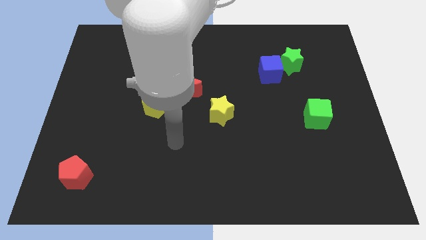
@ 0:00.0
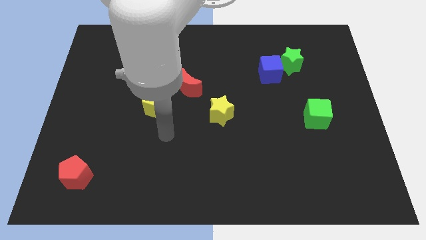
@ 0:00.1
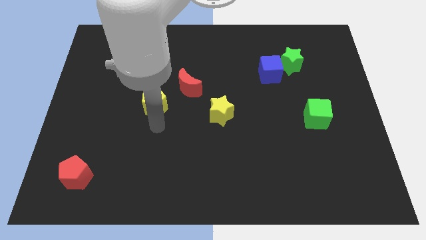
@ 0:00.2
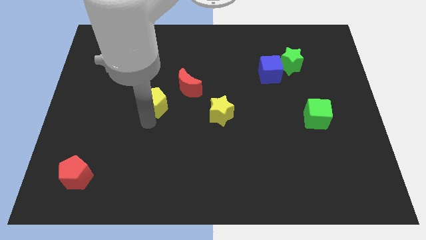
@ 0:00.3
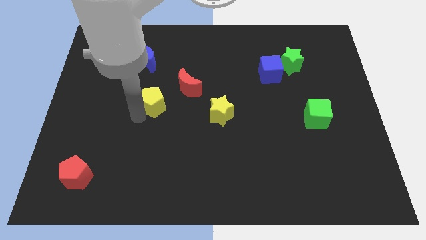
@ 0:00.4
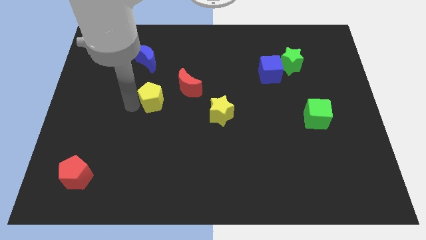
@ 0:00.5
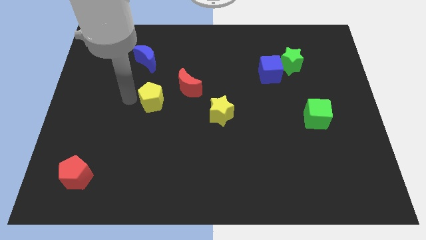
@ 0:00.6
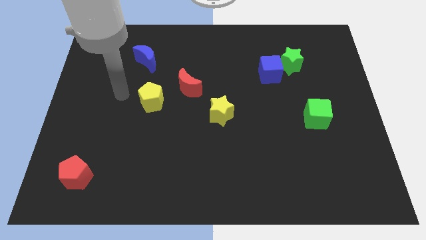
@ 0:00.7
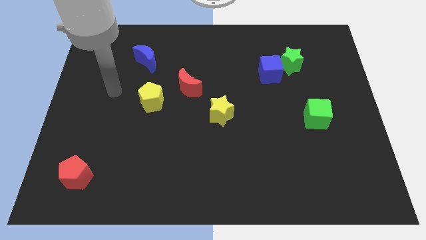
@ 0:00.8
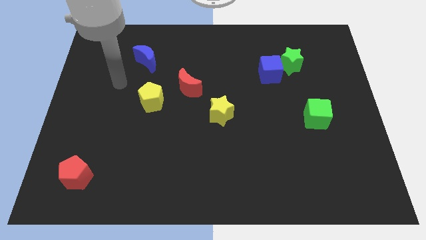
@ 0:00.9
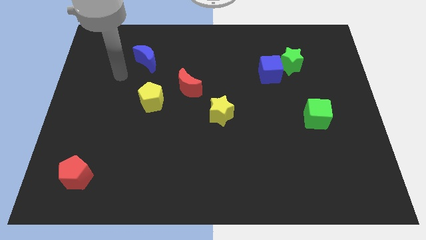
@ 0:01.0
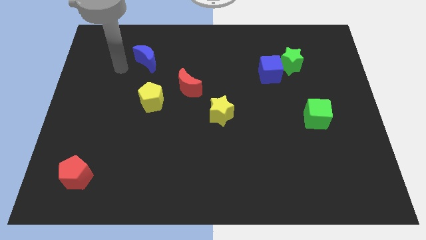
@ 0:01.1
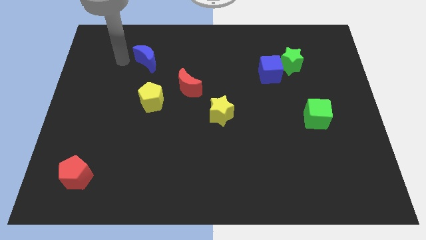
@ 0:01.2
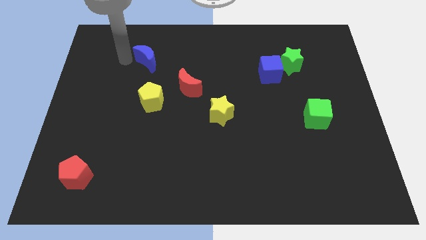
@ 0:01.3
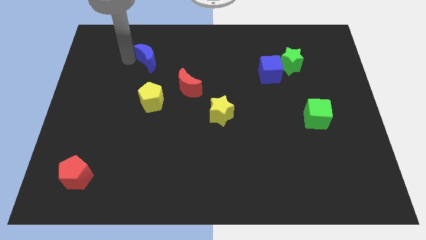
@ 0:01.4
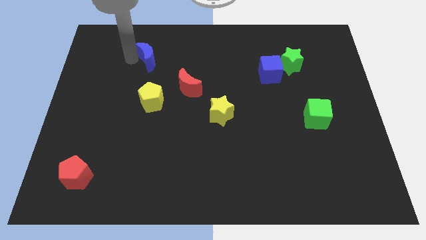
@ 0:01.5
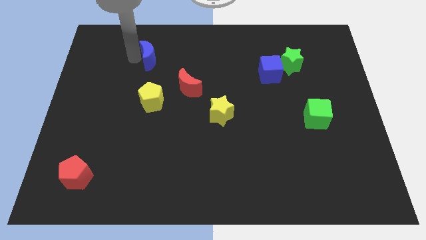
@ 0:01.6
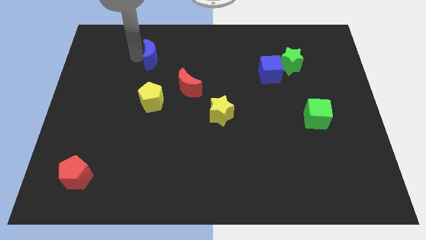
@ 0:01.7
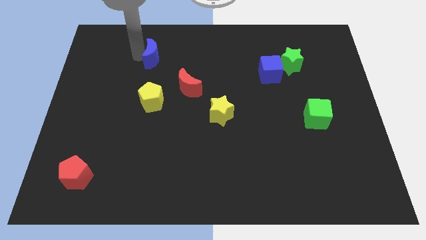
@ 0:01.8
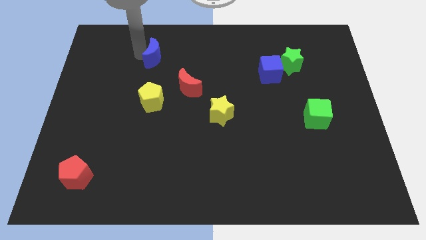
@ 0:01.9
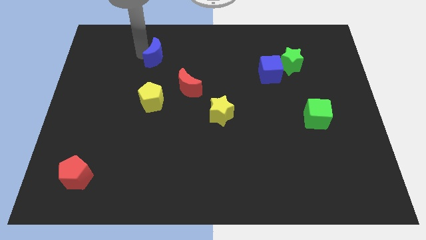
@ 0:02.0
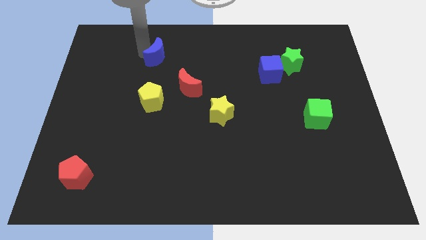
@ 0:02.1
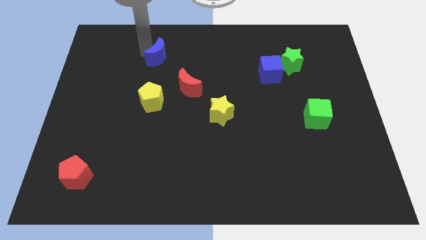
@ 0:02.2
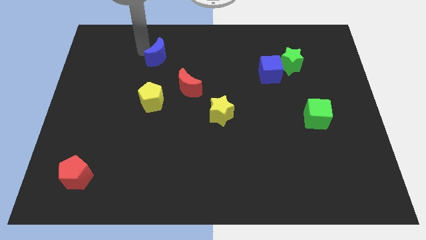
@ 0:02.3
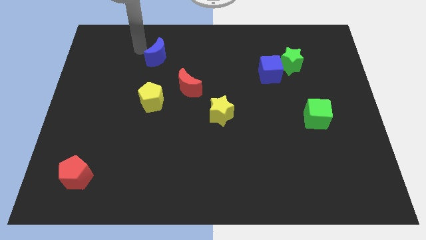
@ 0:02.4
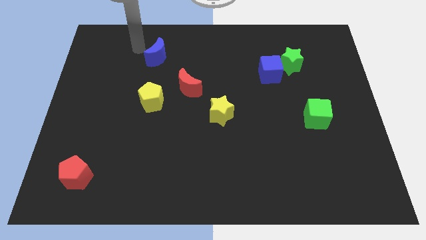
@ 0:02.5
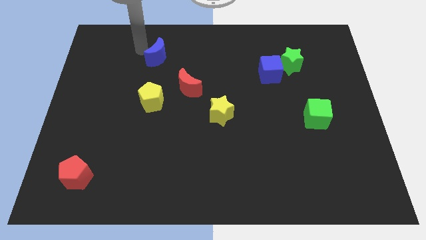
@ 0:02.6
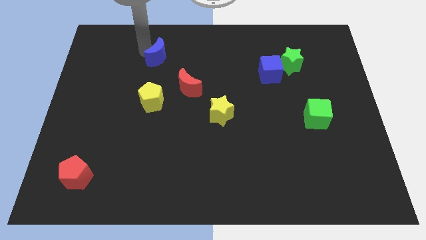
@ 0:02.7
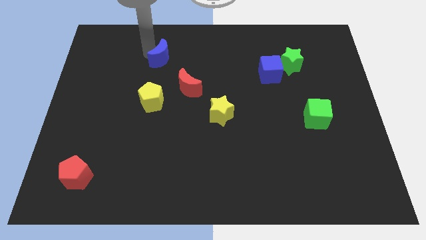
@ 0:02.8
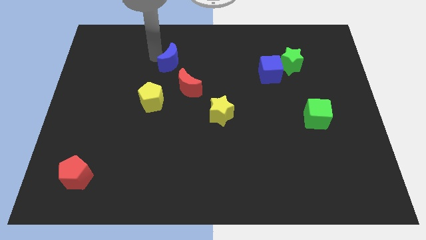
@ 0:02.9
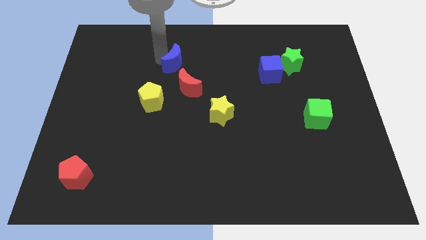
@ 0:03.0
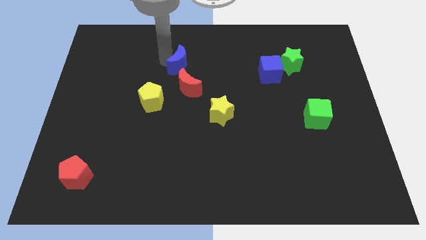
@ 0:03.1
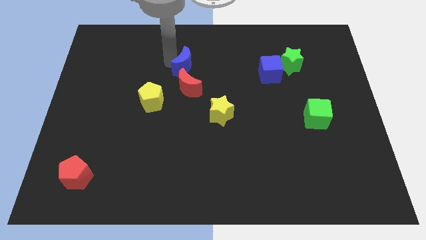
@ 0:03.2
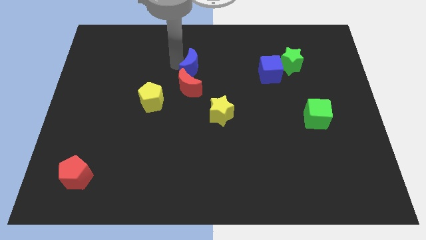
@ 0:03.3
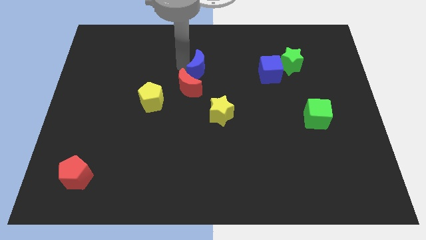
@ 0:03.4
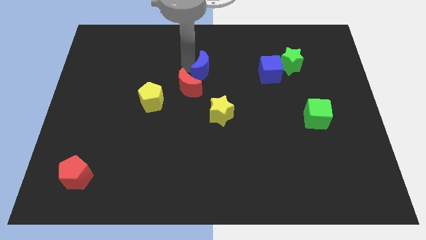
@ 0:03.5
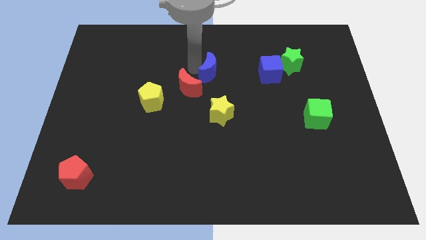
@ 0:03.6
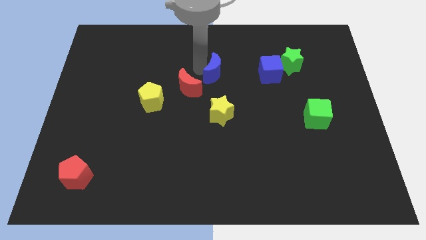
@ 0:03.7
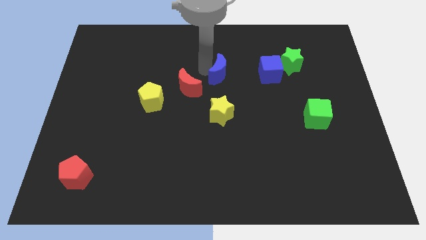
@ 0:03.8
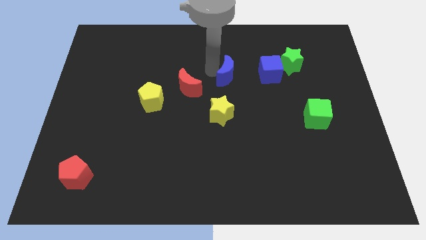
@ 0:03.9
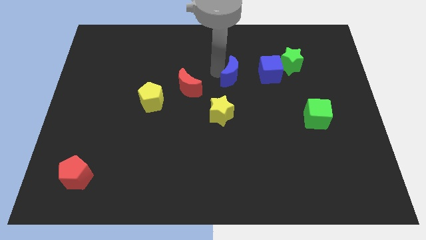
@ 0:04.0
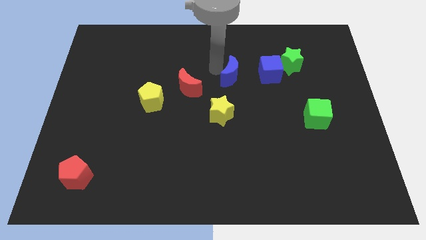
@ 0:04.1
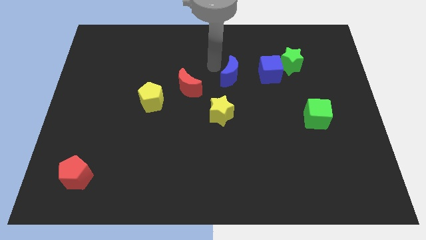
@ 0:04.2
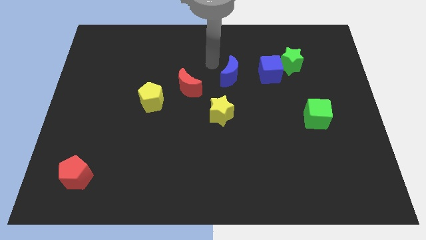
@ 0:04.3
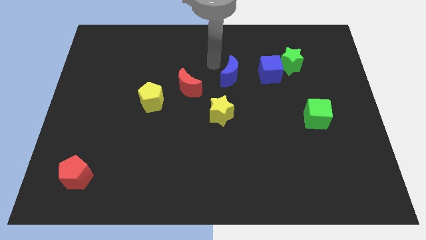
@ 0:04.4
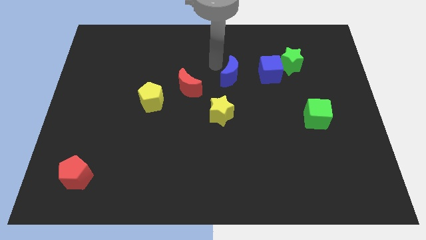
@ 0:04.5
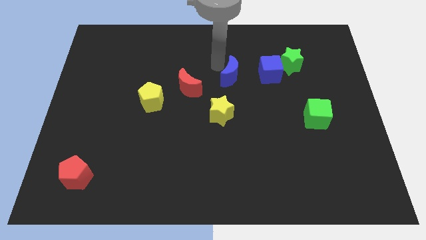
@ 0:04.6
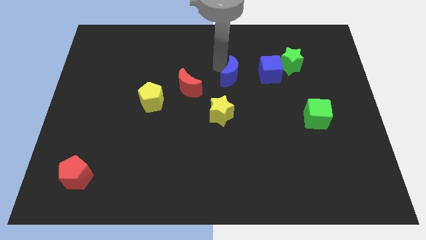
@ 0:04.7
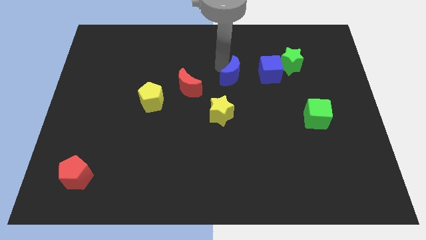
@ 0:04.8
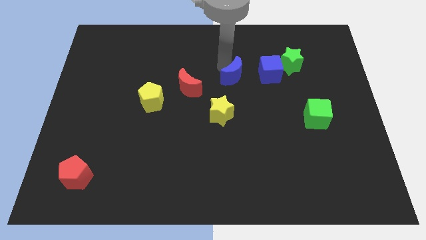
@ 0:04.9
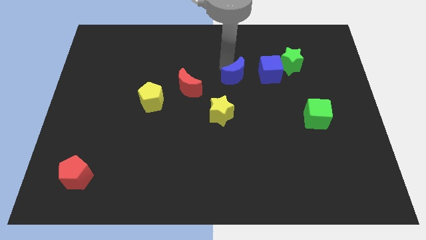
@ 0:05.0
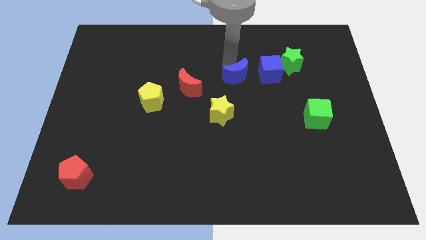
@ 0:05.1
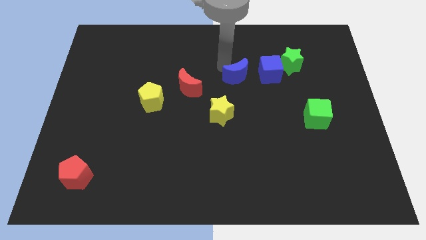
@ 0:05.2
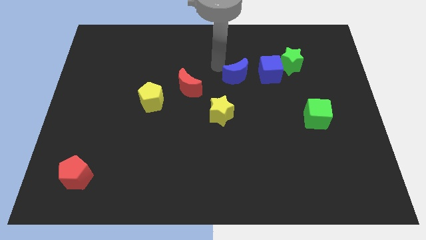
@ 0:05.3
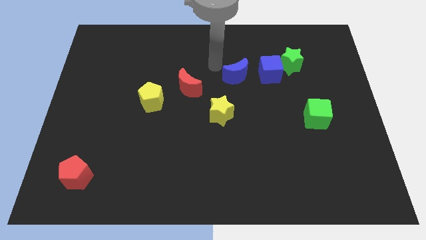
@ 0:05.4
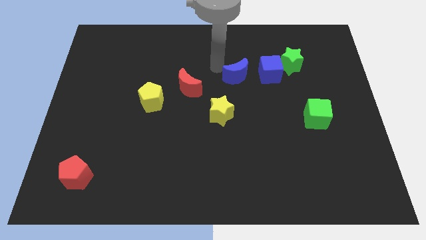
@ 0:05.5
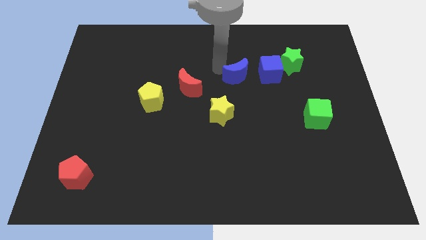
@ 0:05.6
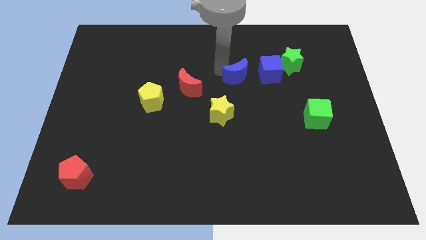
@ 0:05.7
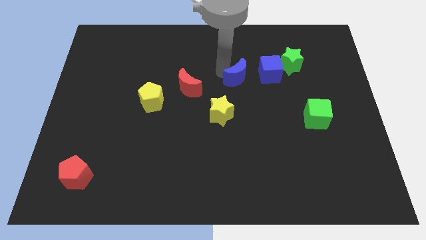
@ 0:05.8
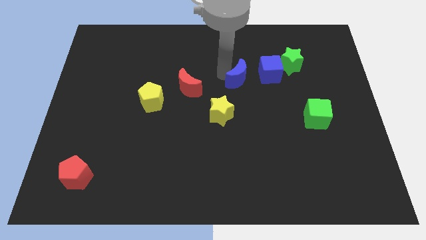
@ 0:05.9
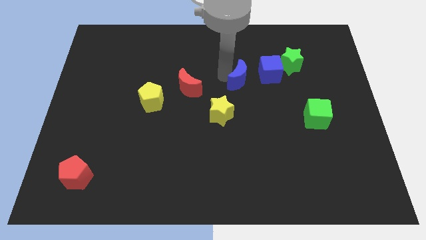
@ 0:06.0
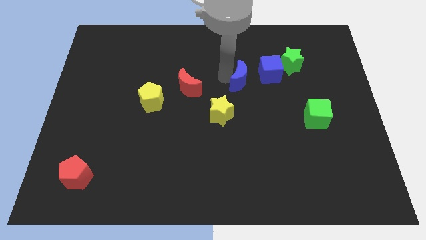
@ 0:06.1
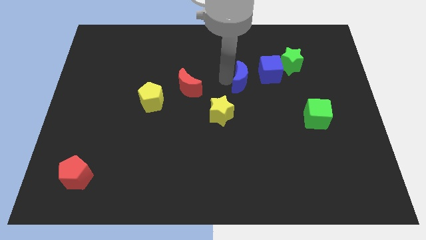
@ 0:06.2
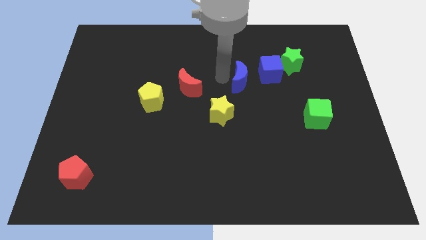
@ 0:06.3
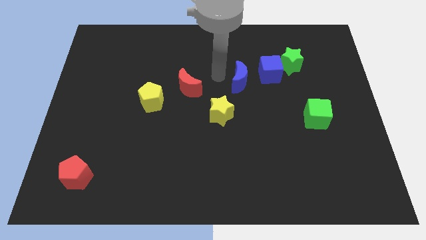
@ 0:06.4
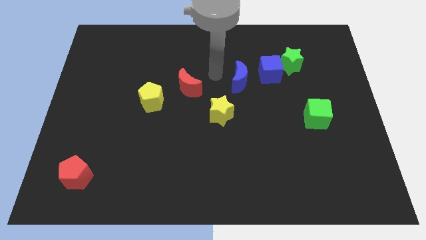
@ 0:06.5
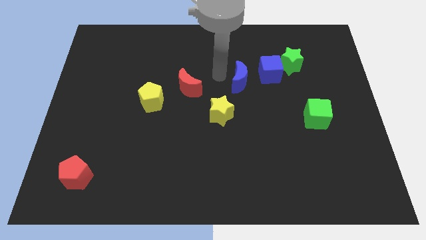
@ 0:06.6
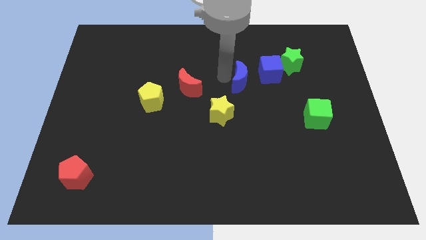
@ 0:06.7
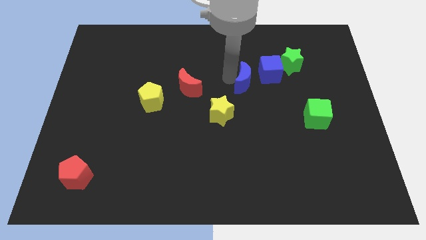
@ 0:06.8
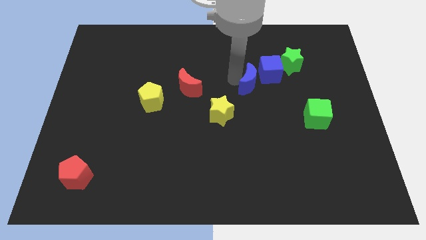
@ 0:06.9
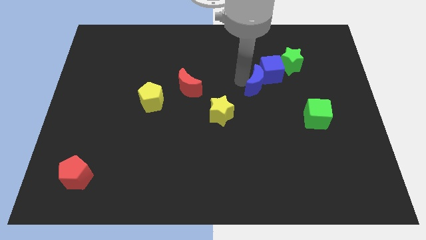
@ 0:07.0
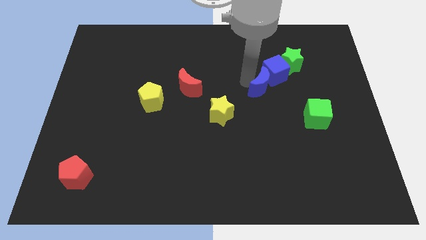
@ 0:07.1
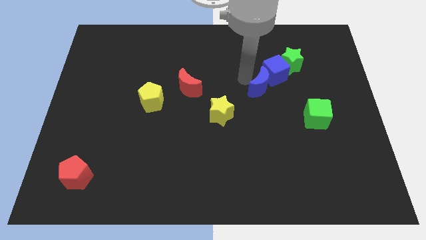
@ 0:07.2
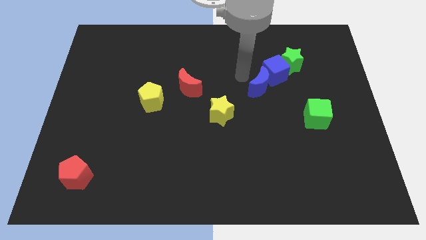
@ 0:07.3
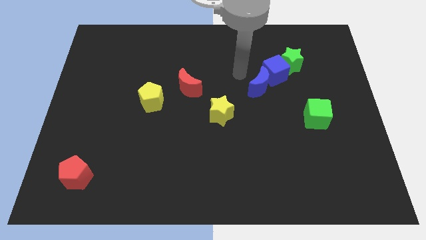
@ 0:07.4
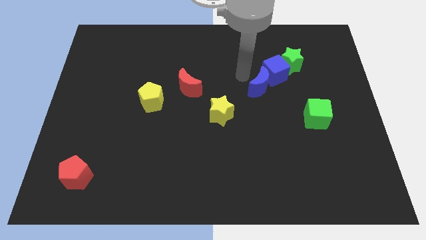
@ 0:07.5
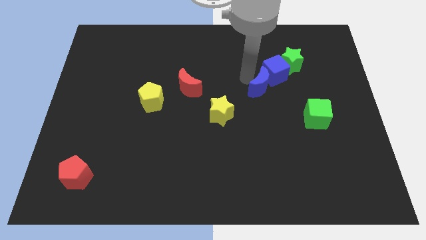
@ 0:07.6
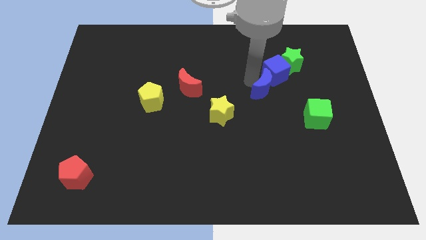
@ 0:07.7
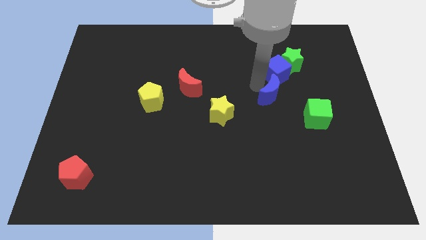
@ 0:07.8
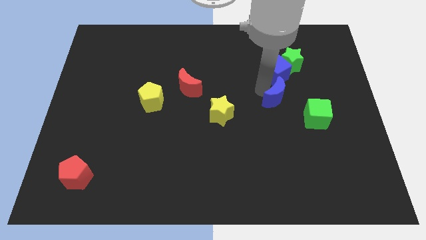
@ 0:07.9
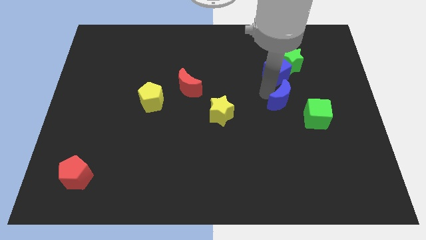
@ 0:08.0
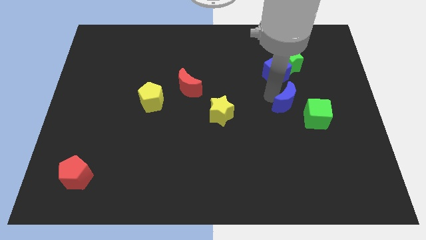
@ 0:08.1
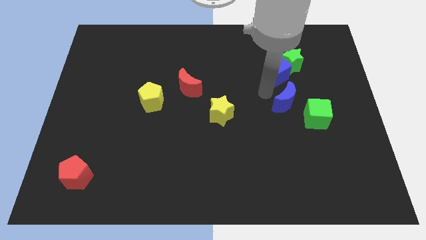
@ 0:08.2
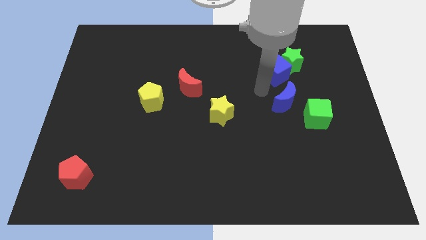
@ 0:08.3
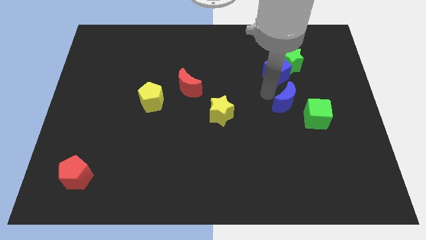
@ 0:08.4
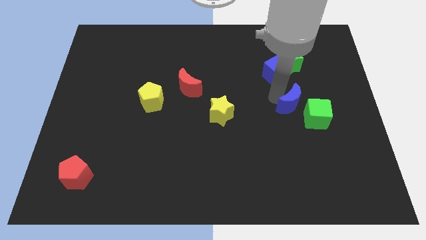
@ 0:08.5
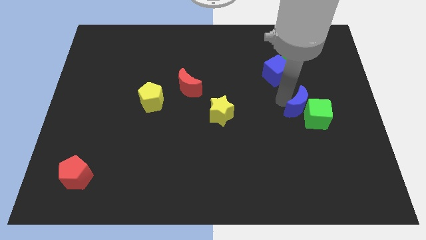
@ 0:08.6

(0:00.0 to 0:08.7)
move the blue moon close to the green cube
